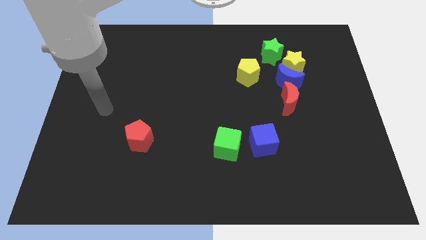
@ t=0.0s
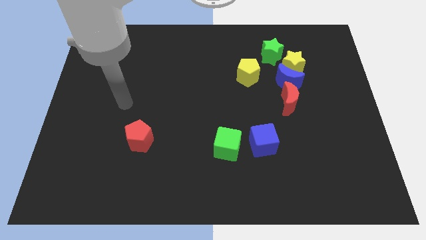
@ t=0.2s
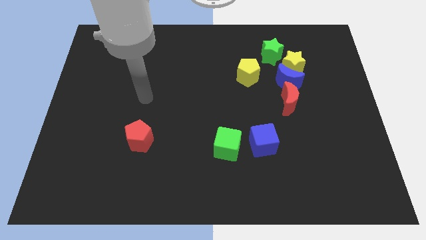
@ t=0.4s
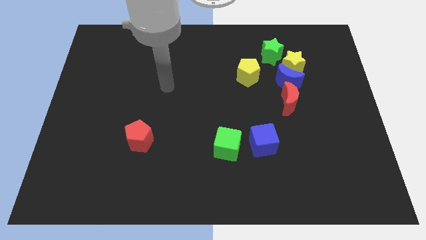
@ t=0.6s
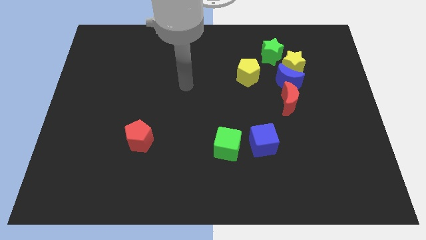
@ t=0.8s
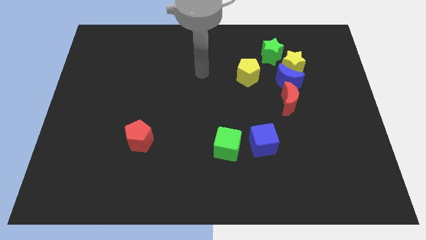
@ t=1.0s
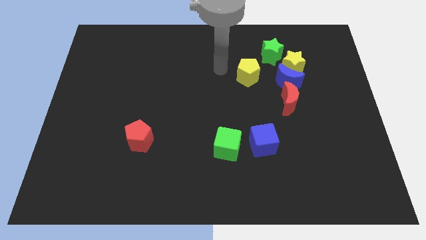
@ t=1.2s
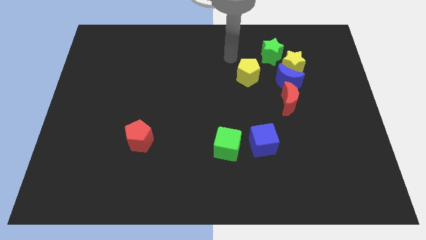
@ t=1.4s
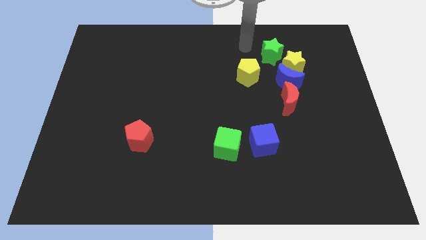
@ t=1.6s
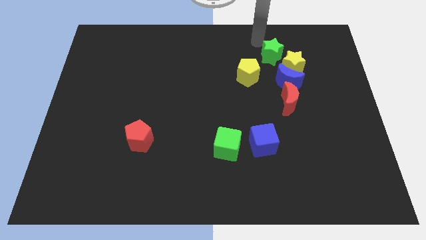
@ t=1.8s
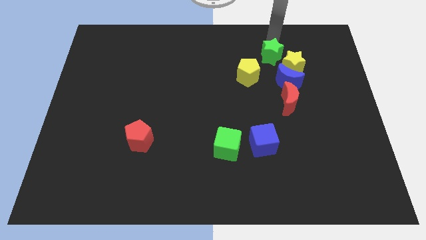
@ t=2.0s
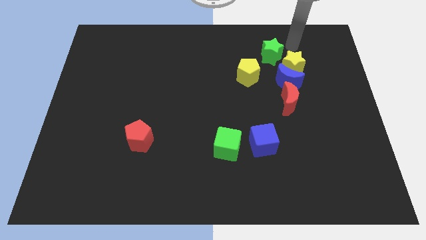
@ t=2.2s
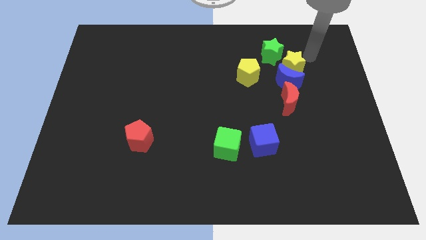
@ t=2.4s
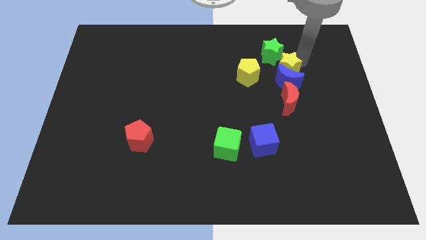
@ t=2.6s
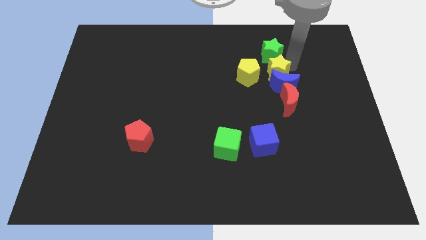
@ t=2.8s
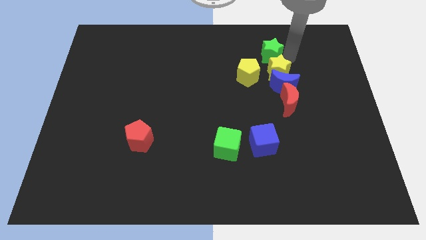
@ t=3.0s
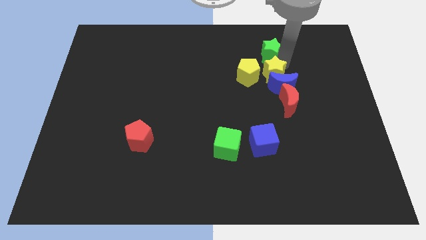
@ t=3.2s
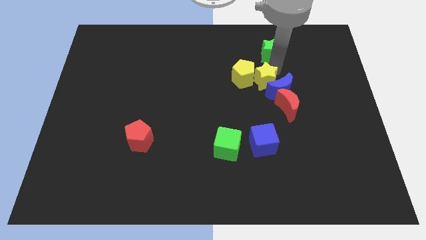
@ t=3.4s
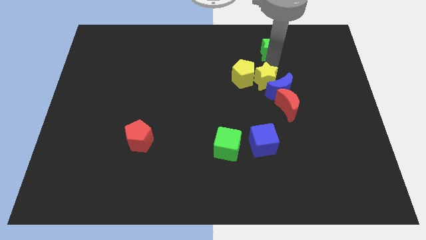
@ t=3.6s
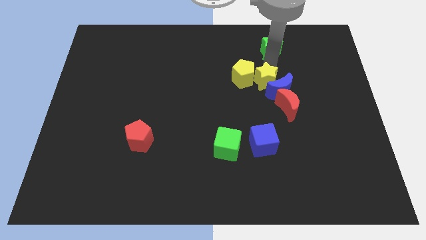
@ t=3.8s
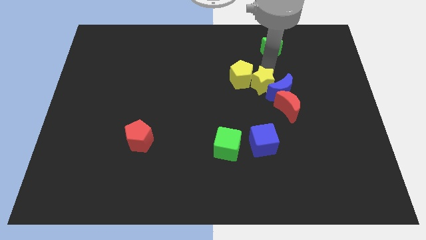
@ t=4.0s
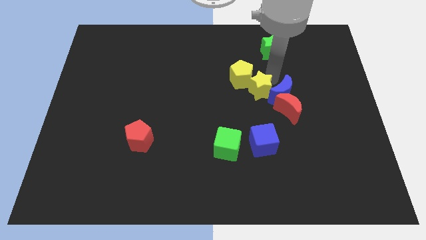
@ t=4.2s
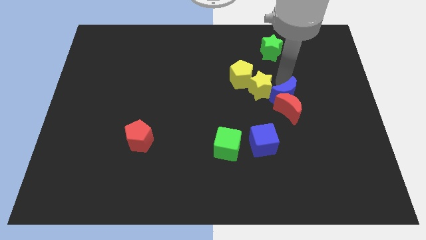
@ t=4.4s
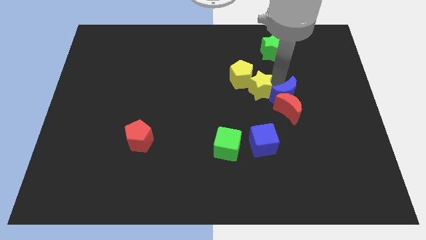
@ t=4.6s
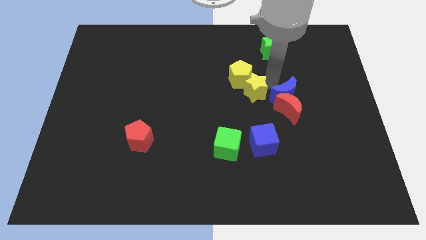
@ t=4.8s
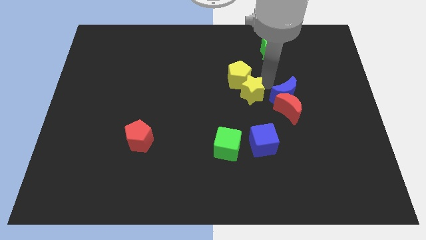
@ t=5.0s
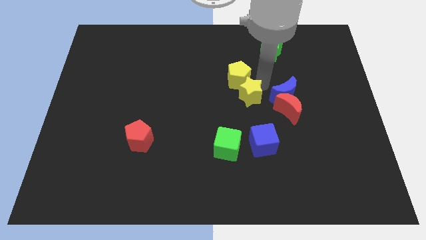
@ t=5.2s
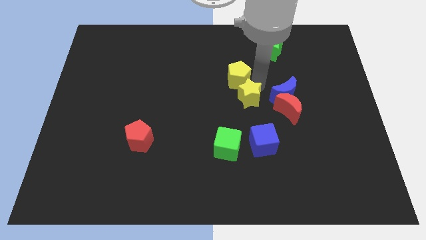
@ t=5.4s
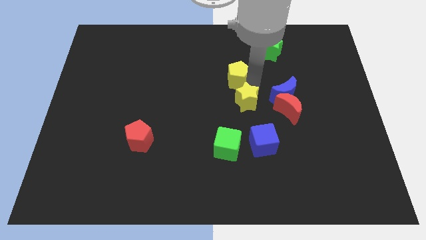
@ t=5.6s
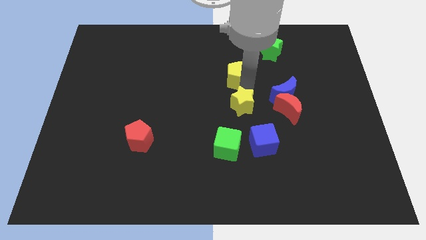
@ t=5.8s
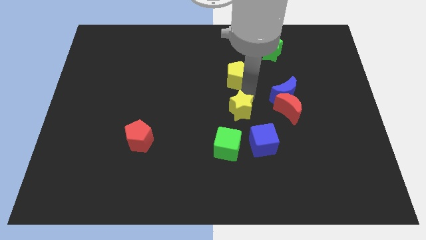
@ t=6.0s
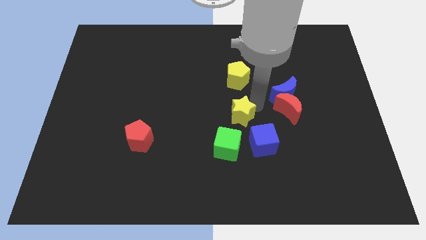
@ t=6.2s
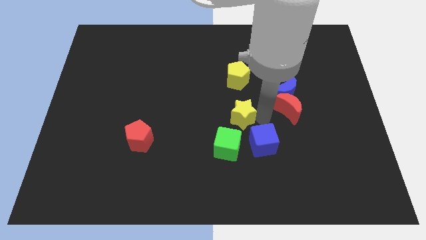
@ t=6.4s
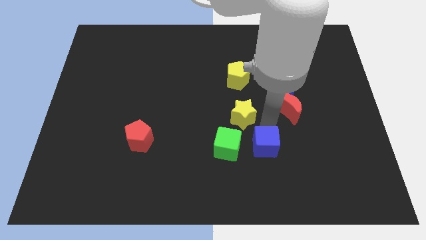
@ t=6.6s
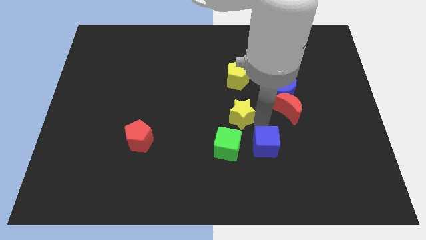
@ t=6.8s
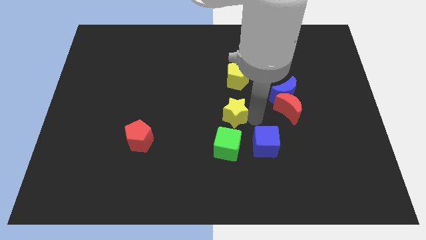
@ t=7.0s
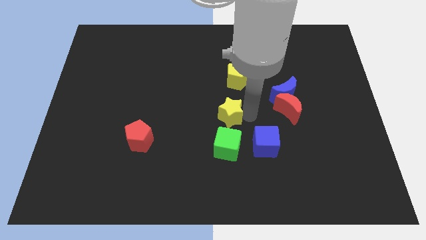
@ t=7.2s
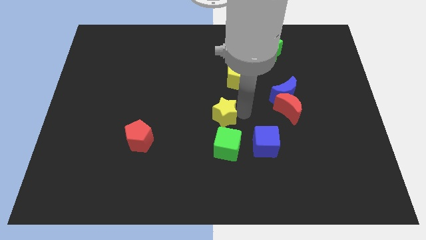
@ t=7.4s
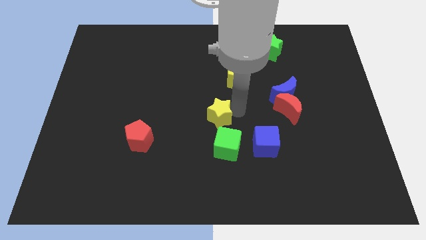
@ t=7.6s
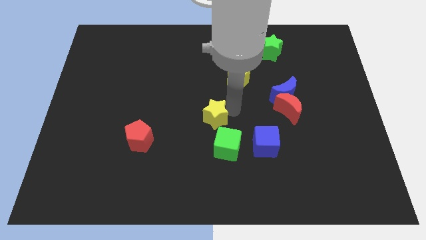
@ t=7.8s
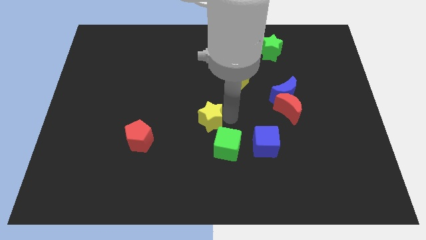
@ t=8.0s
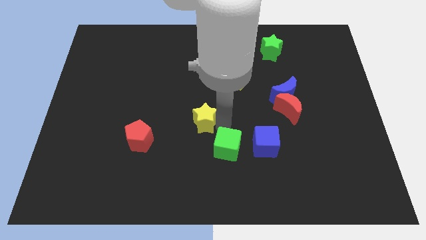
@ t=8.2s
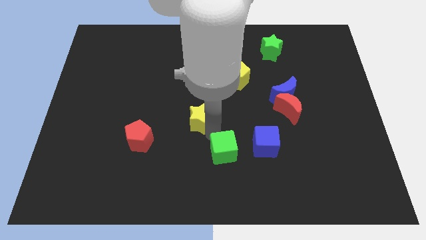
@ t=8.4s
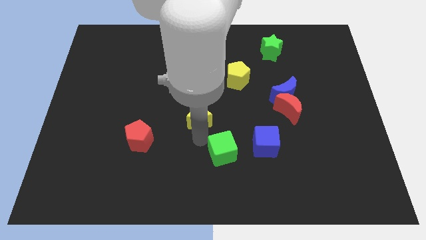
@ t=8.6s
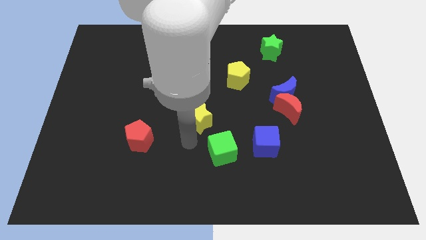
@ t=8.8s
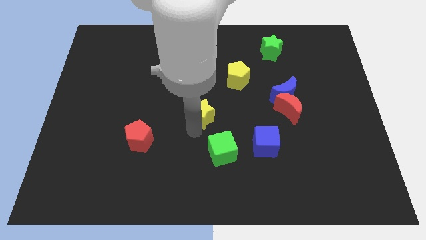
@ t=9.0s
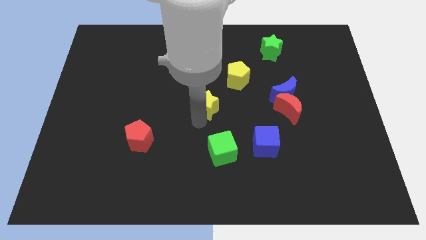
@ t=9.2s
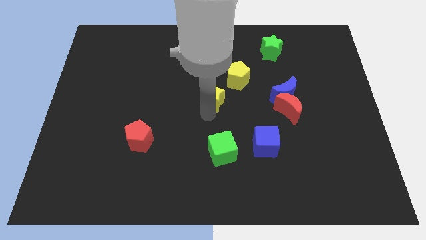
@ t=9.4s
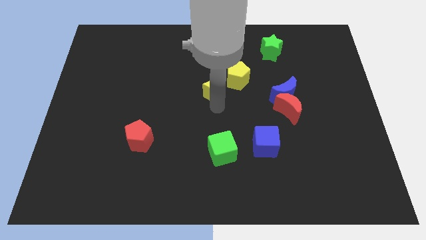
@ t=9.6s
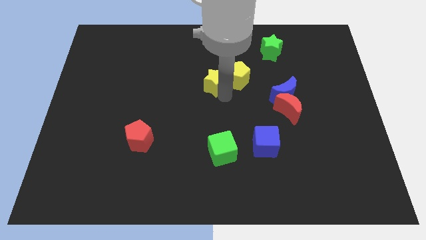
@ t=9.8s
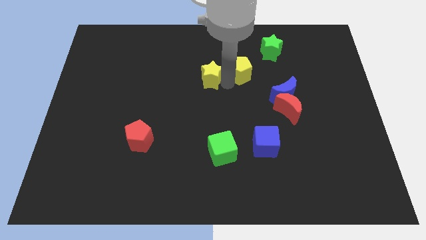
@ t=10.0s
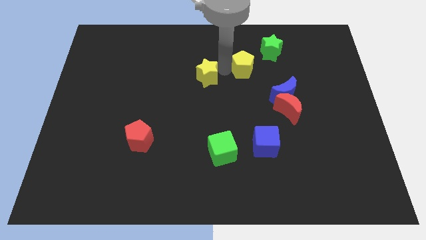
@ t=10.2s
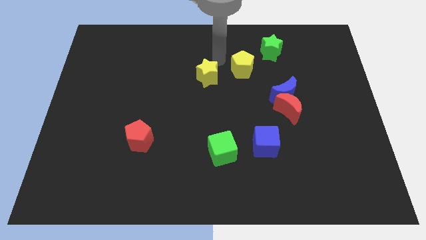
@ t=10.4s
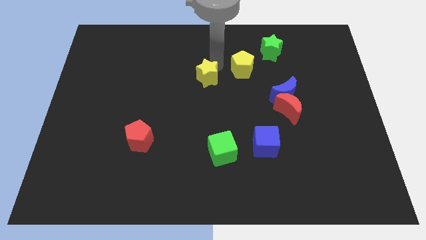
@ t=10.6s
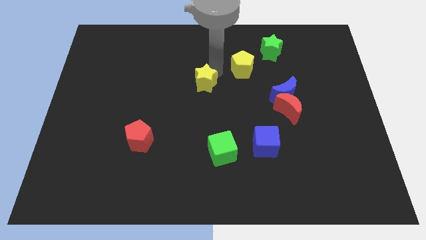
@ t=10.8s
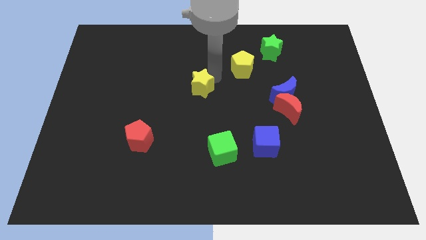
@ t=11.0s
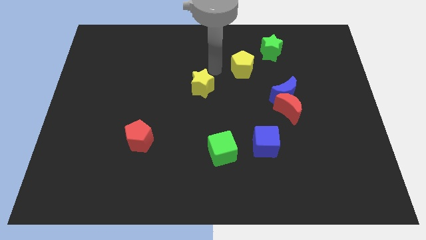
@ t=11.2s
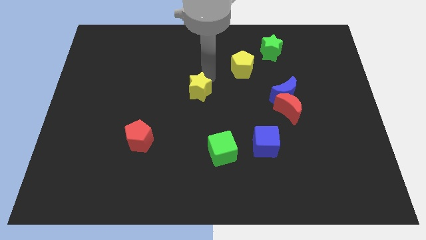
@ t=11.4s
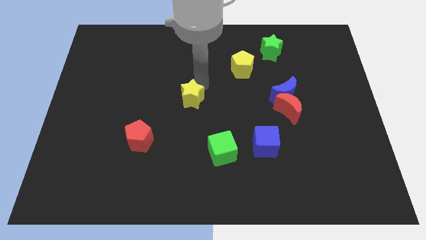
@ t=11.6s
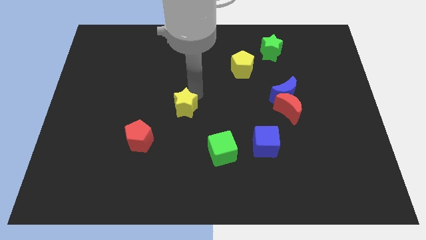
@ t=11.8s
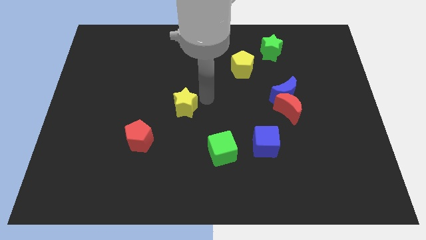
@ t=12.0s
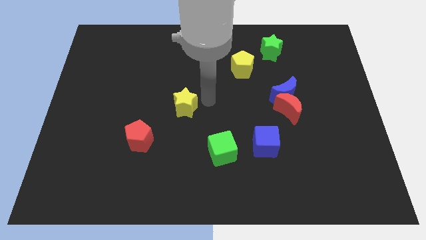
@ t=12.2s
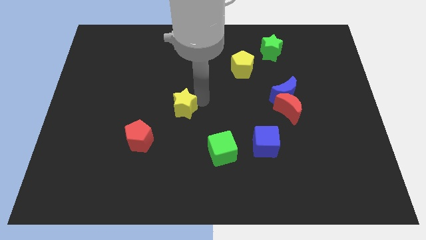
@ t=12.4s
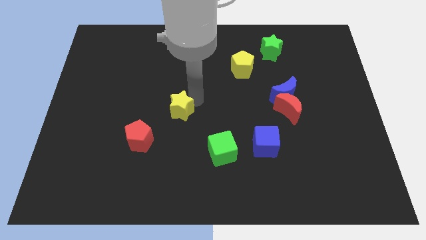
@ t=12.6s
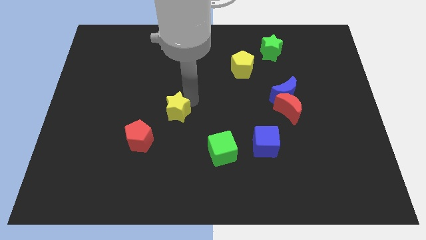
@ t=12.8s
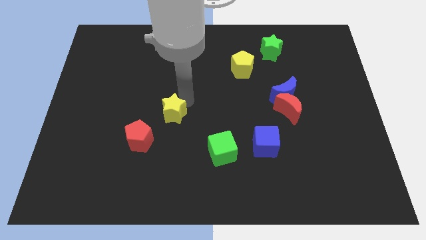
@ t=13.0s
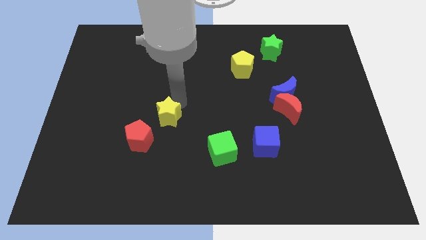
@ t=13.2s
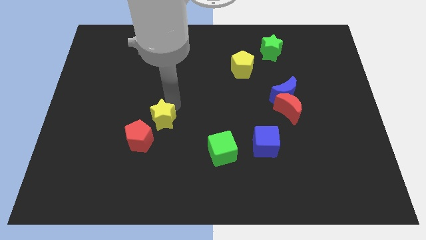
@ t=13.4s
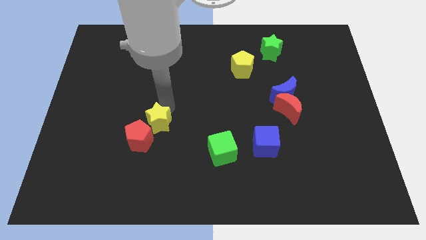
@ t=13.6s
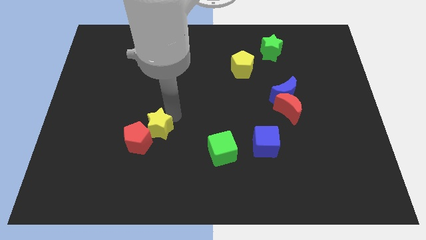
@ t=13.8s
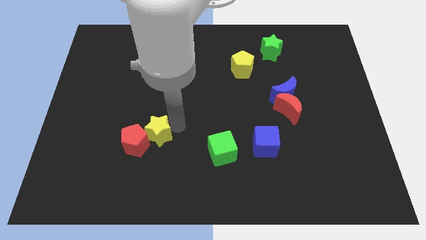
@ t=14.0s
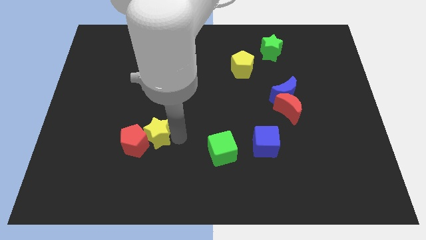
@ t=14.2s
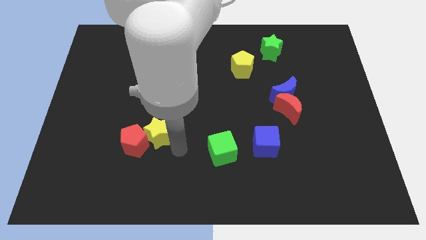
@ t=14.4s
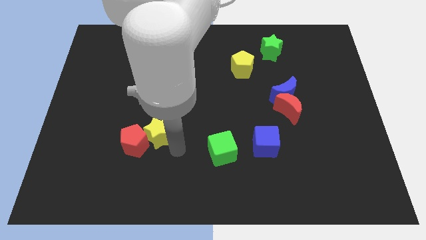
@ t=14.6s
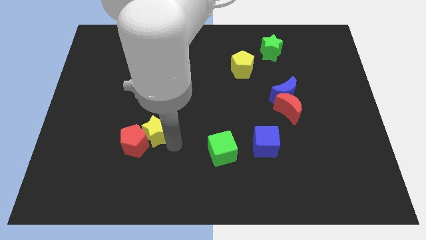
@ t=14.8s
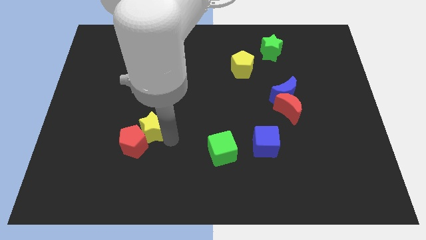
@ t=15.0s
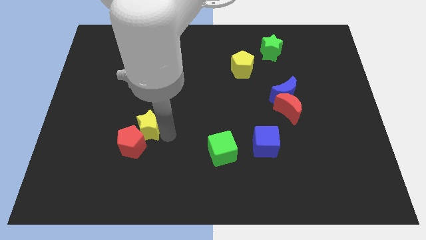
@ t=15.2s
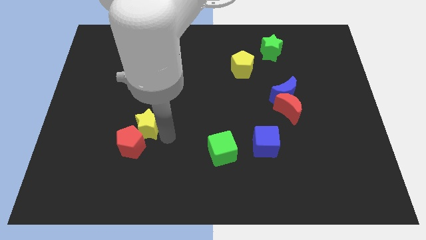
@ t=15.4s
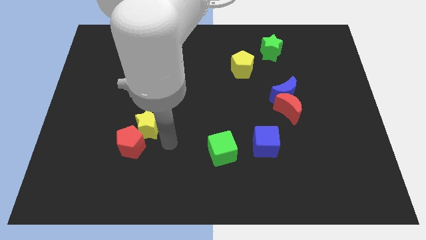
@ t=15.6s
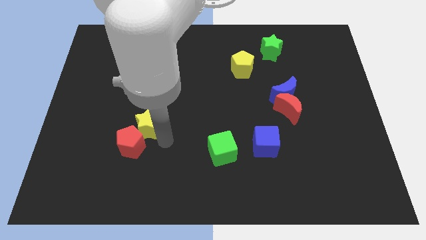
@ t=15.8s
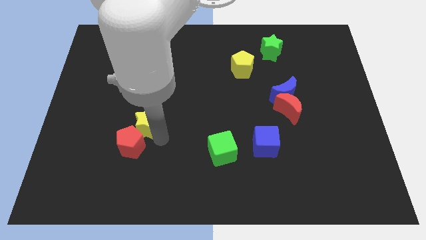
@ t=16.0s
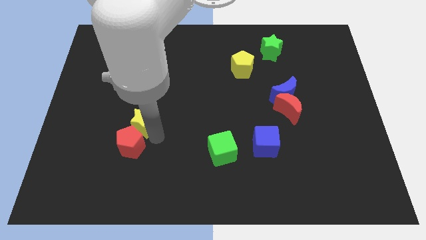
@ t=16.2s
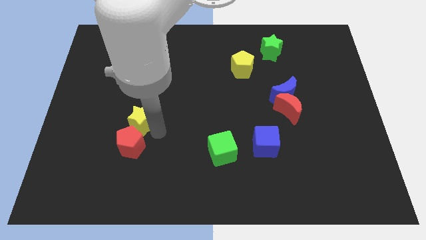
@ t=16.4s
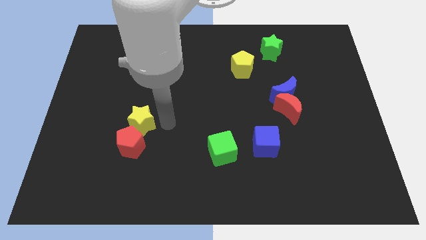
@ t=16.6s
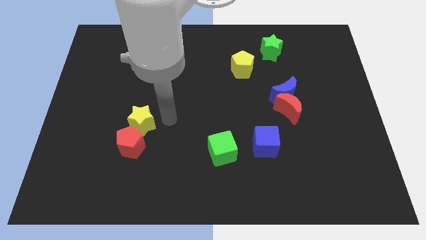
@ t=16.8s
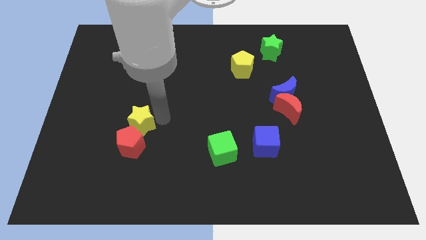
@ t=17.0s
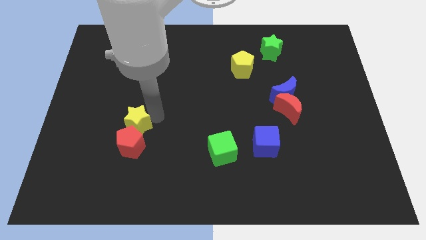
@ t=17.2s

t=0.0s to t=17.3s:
push the yellow star to the top left side of the red pentagon
